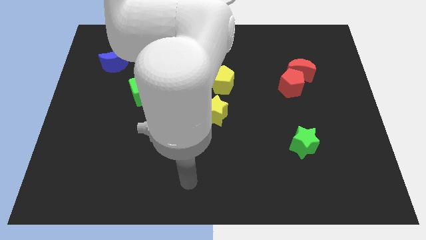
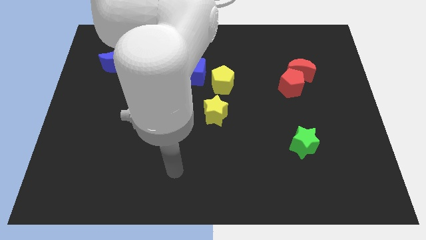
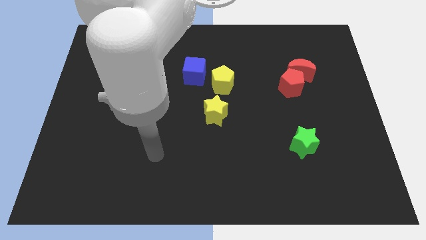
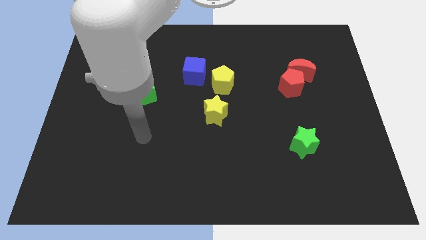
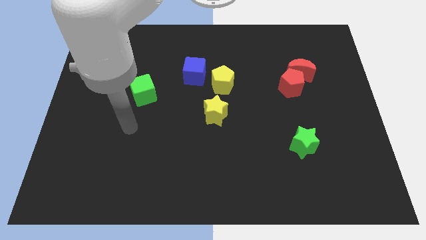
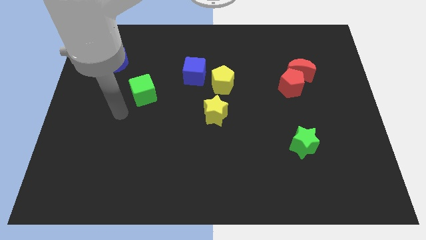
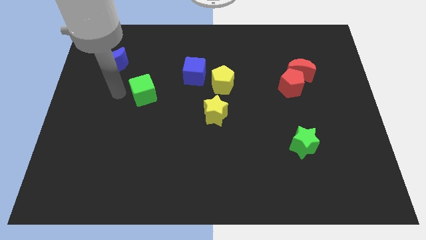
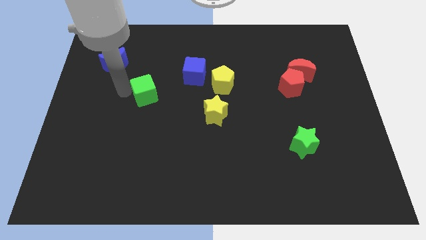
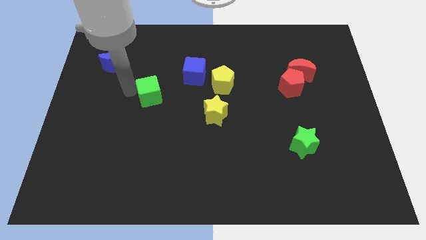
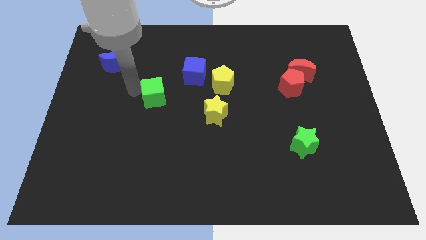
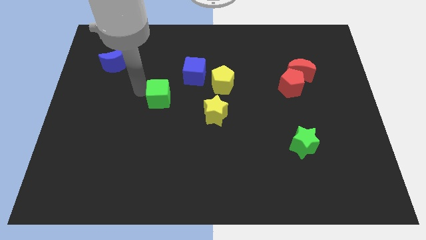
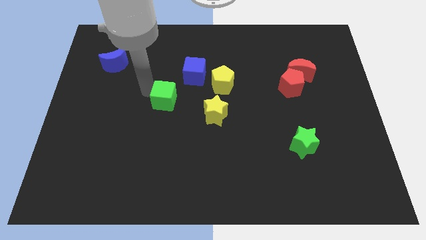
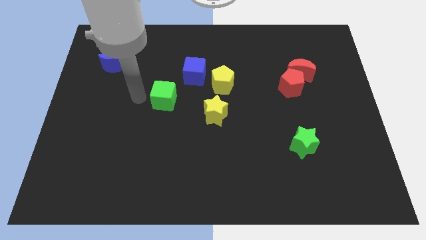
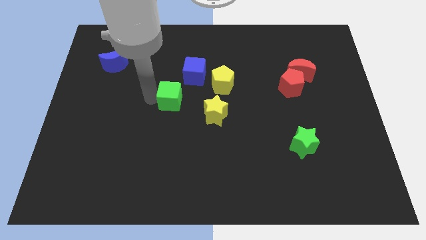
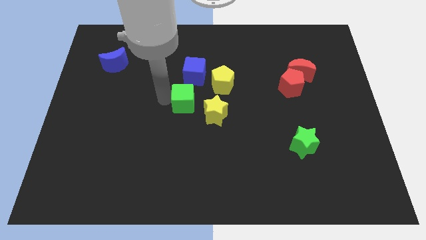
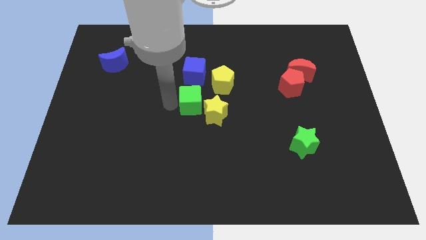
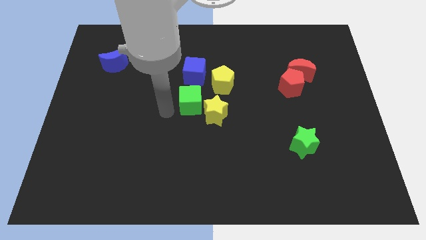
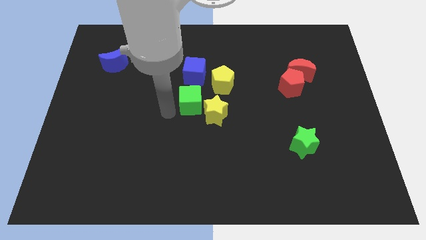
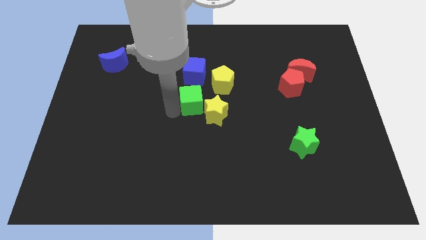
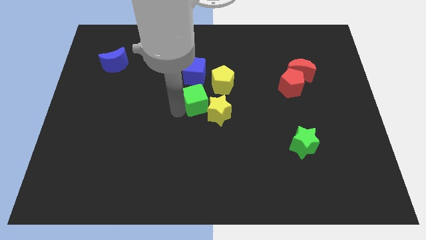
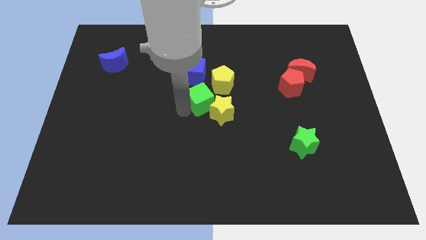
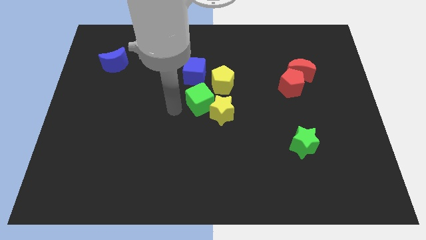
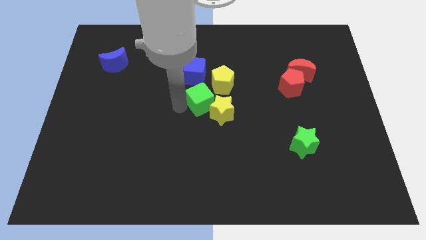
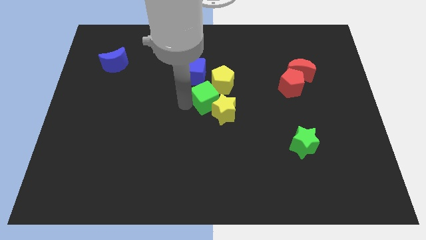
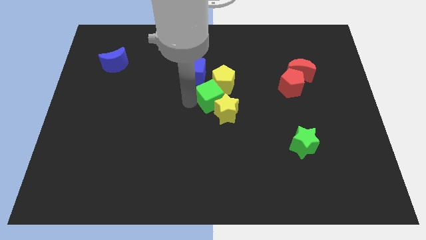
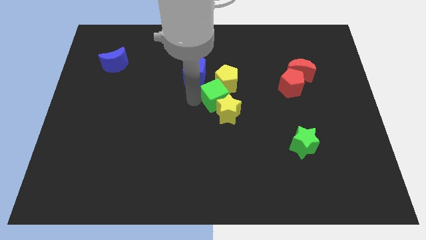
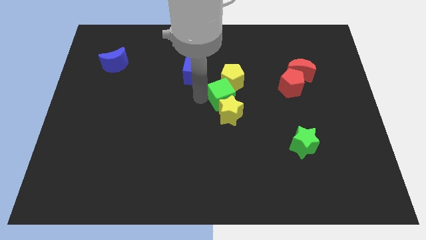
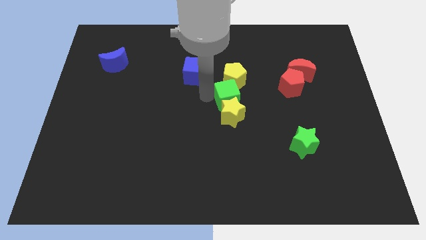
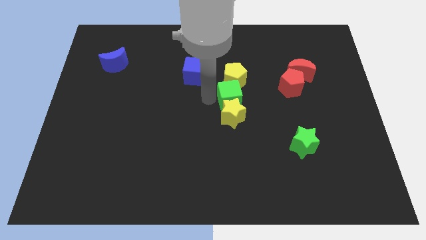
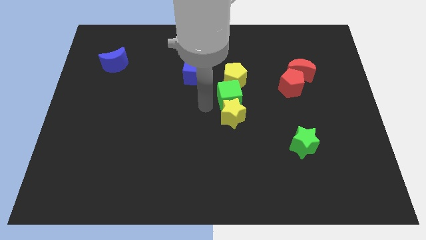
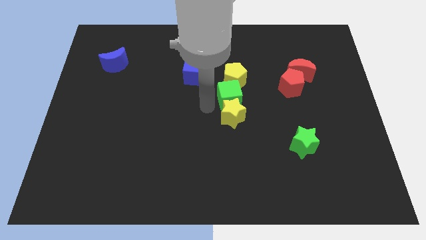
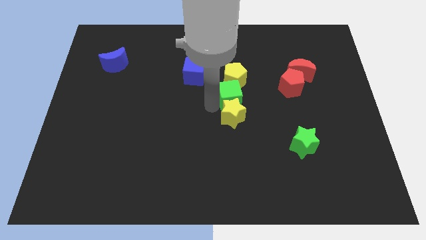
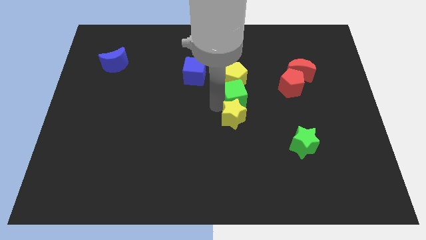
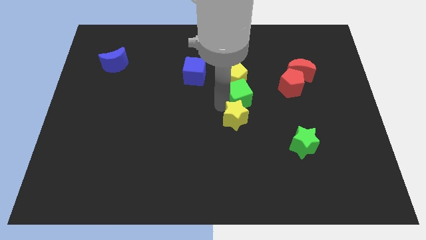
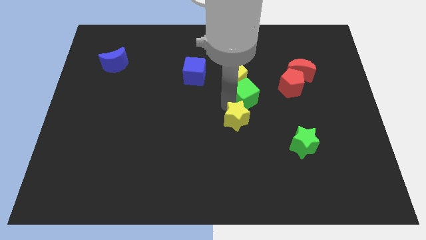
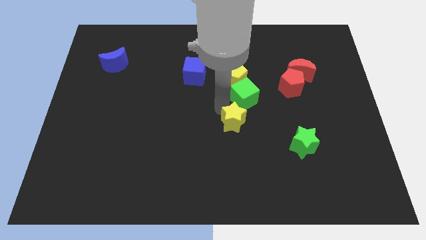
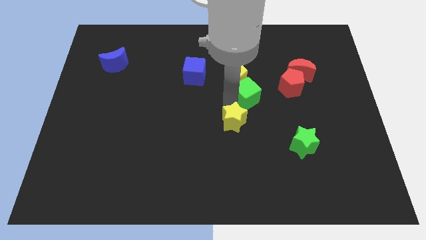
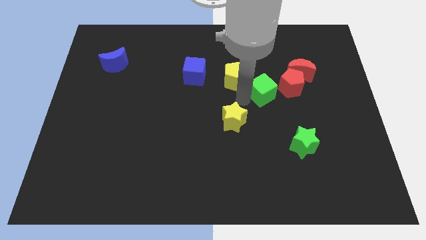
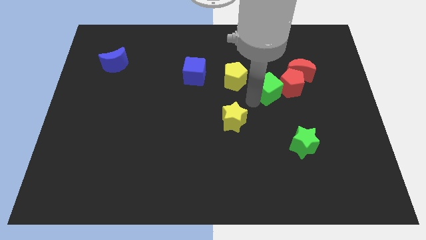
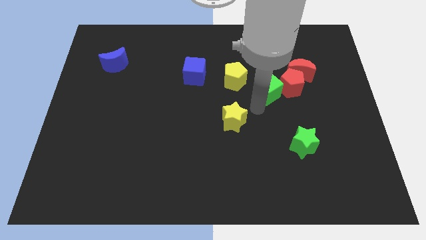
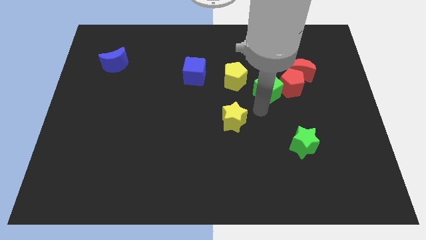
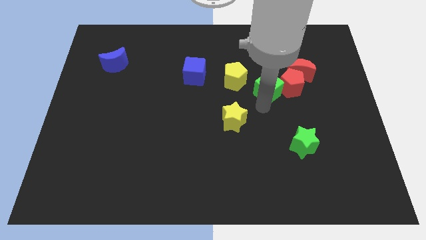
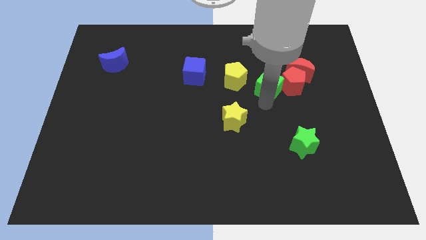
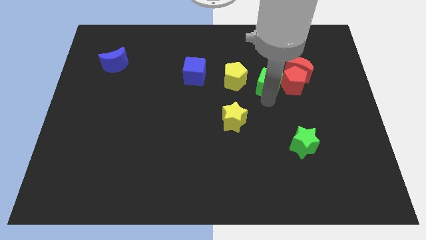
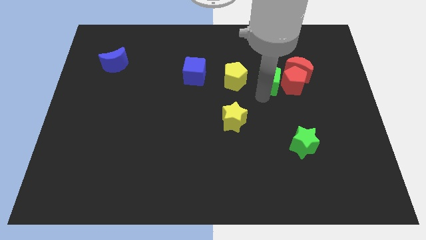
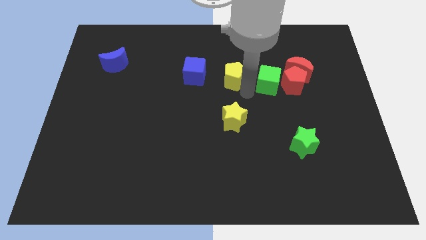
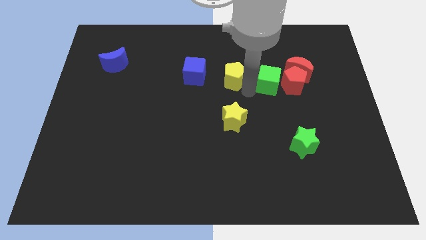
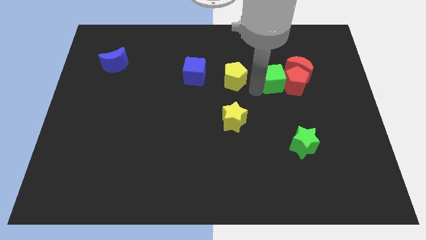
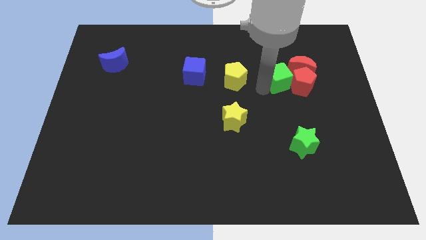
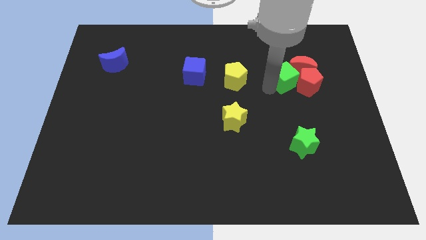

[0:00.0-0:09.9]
slide the green cube to the red moon

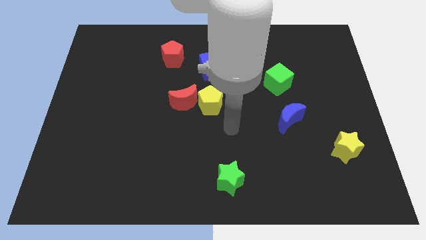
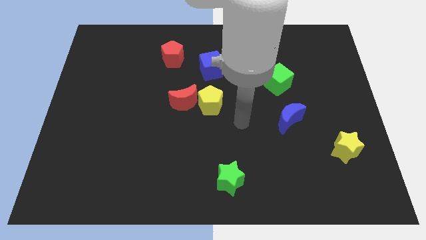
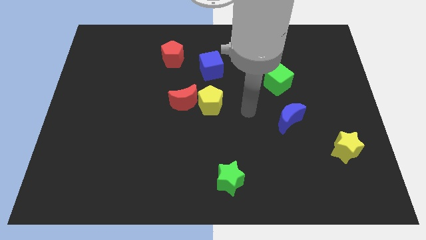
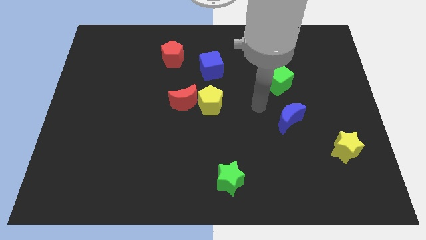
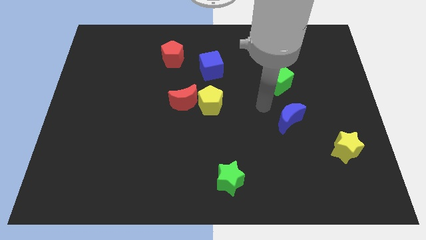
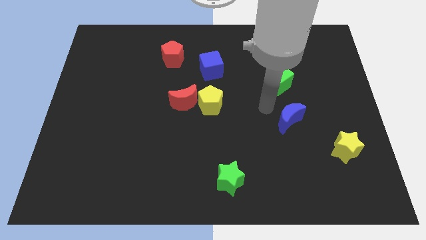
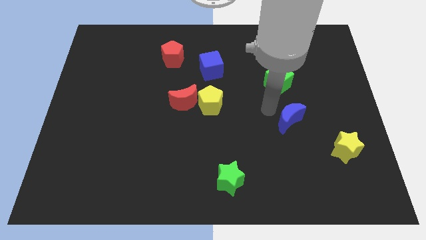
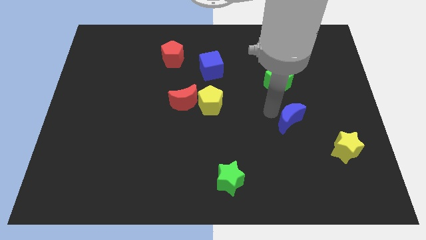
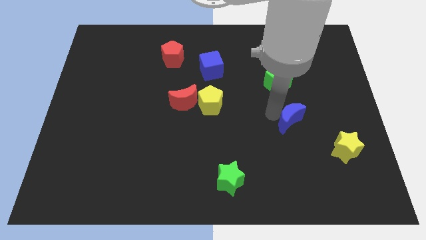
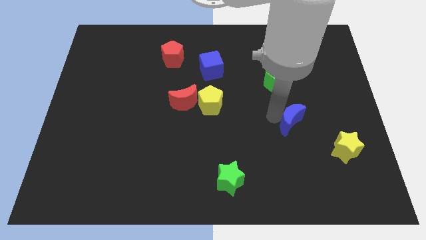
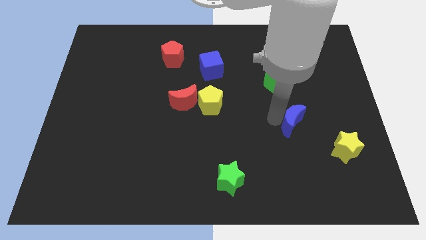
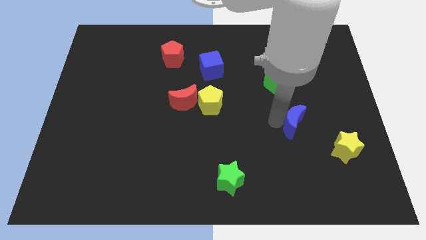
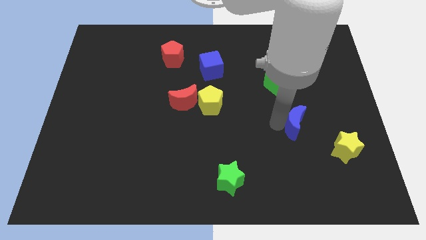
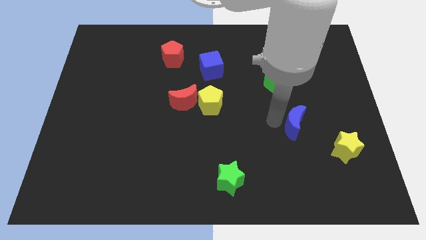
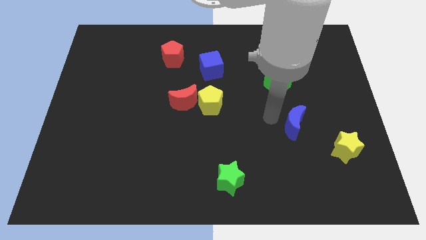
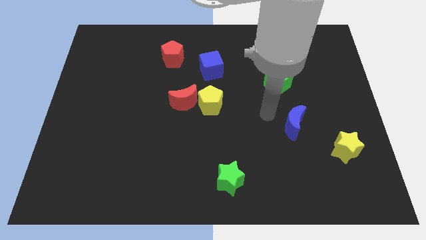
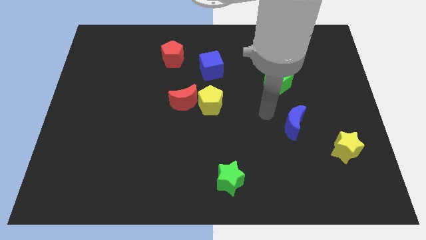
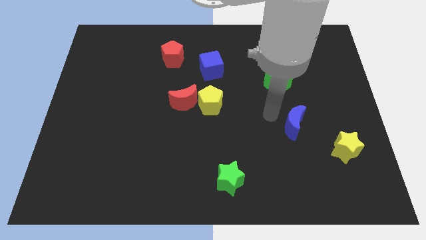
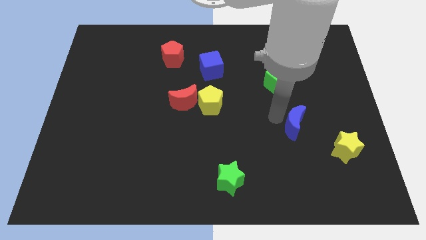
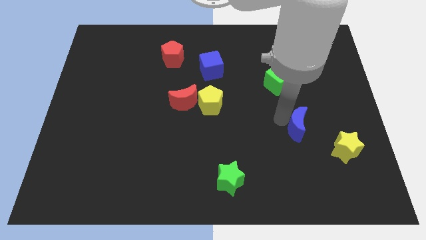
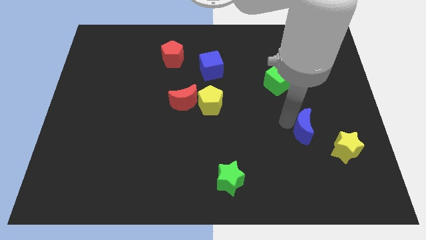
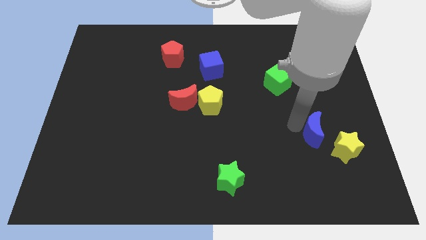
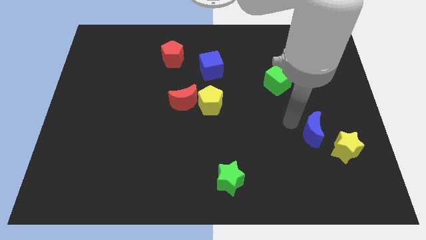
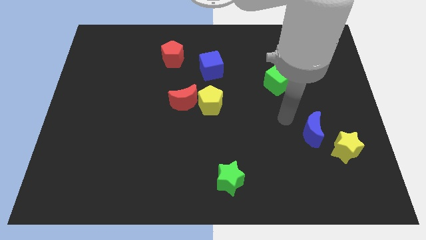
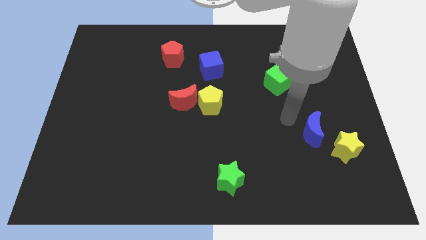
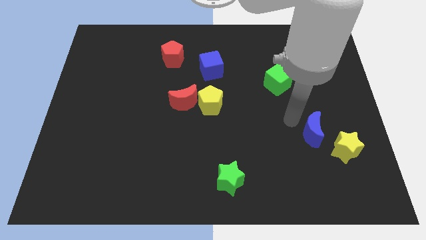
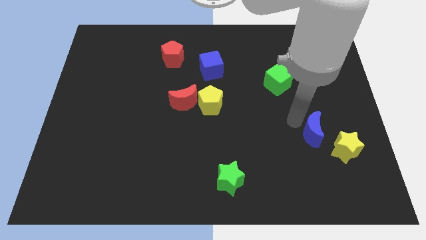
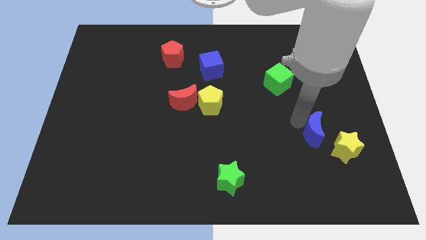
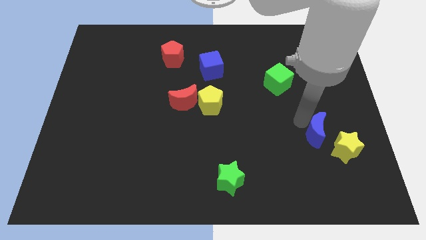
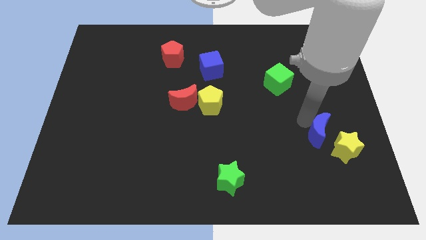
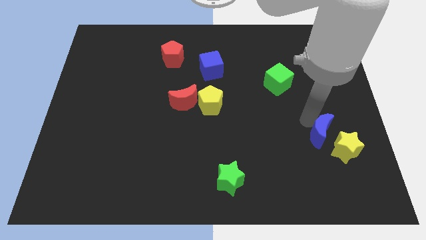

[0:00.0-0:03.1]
push the blue moon close to the yellow star
